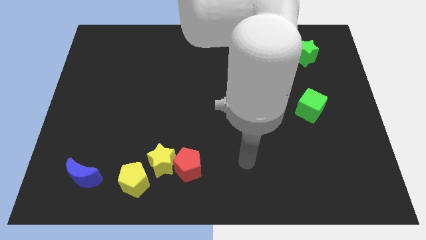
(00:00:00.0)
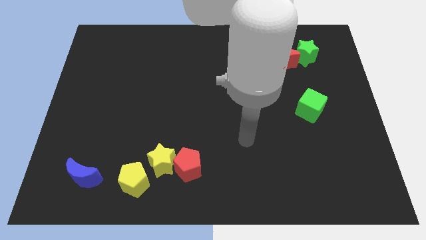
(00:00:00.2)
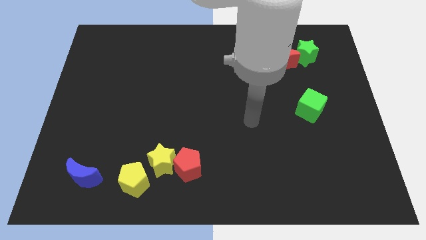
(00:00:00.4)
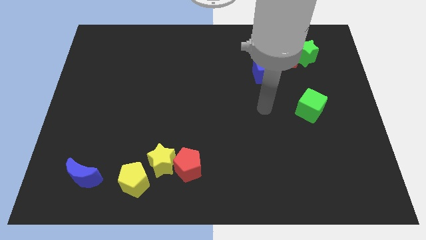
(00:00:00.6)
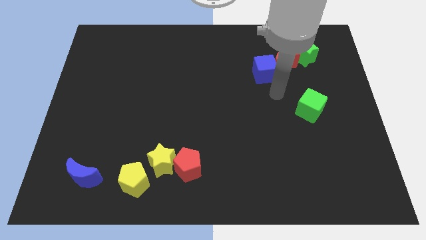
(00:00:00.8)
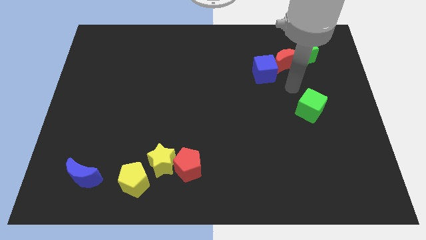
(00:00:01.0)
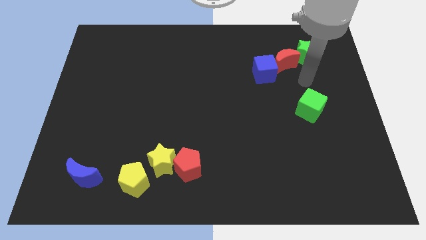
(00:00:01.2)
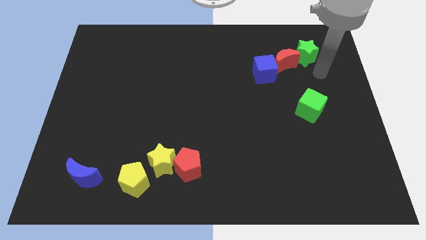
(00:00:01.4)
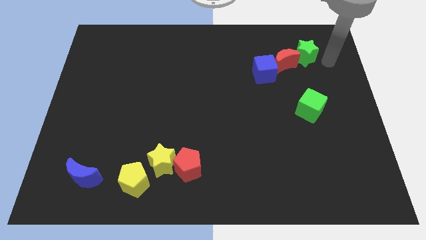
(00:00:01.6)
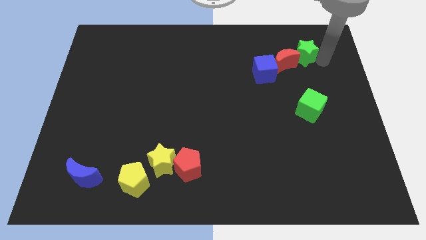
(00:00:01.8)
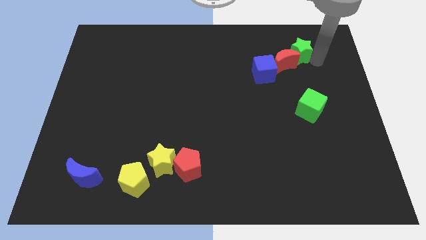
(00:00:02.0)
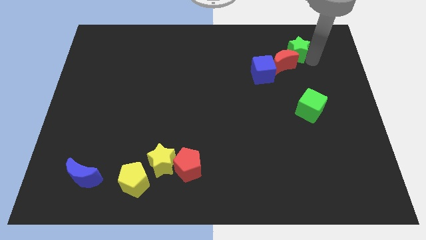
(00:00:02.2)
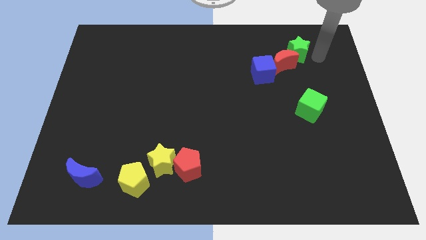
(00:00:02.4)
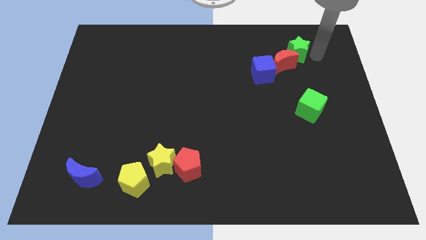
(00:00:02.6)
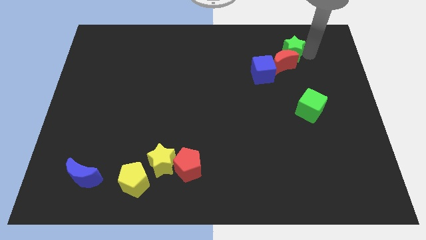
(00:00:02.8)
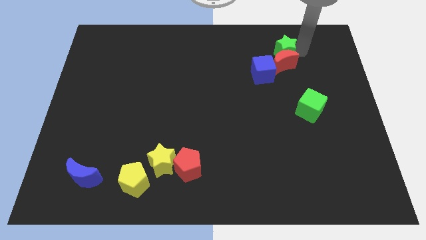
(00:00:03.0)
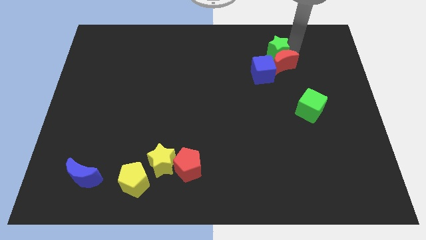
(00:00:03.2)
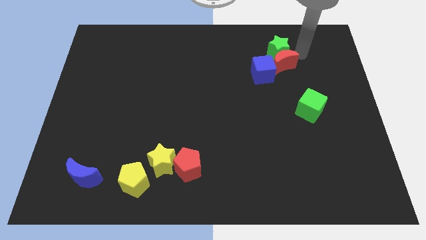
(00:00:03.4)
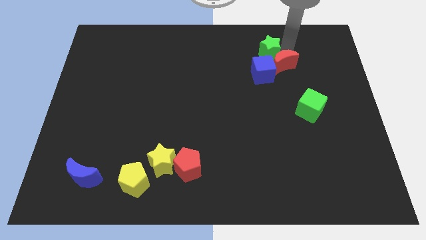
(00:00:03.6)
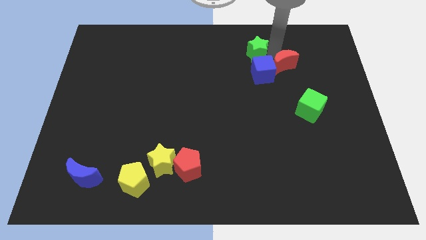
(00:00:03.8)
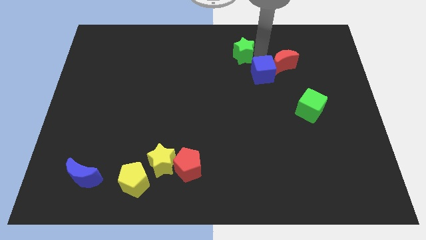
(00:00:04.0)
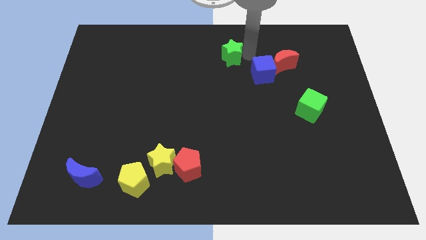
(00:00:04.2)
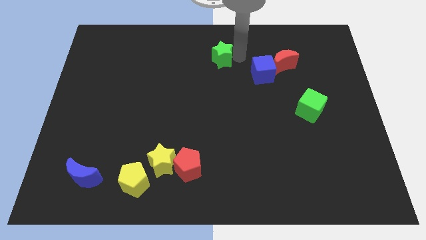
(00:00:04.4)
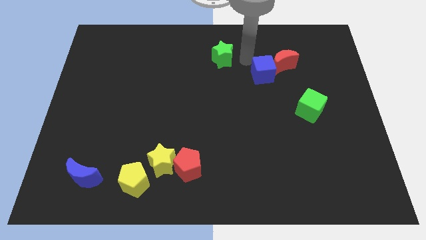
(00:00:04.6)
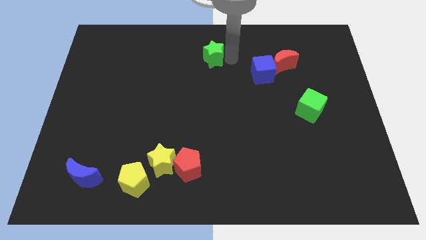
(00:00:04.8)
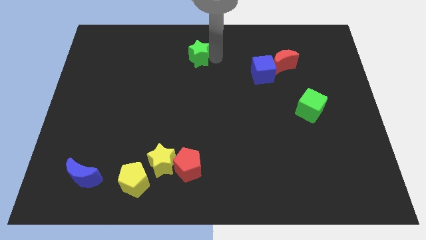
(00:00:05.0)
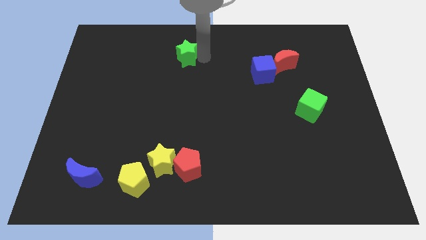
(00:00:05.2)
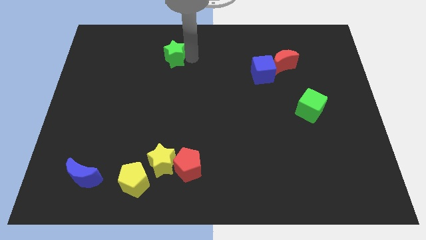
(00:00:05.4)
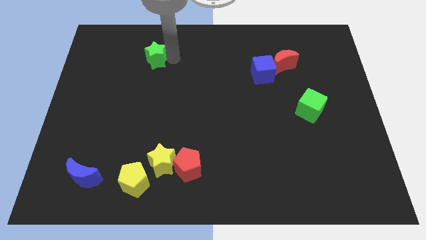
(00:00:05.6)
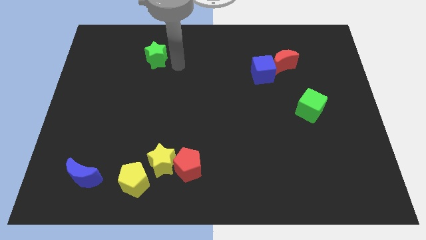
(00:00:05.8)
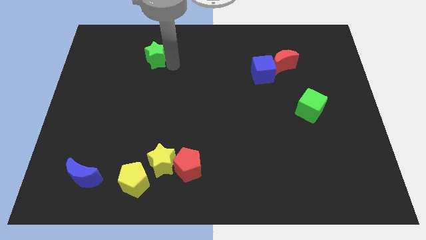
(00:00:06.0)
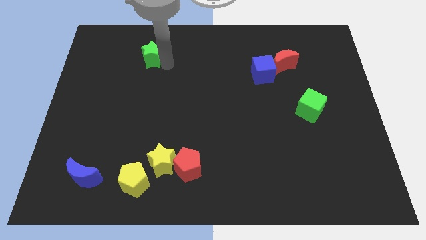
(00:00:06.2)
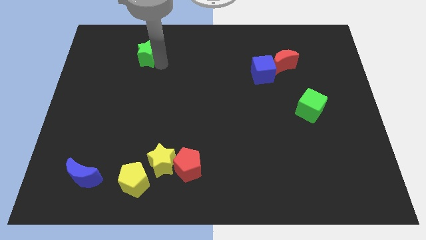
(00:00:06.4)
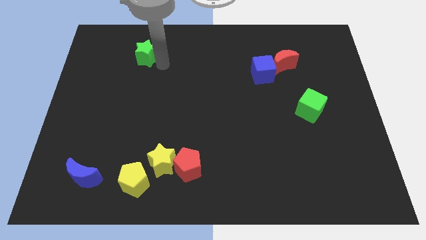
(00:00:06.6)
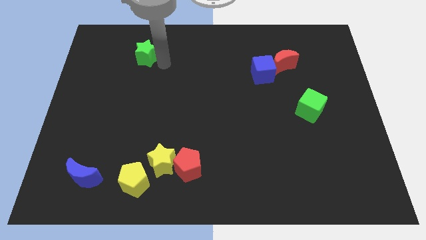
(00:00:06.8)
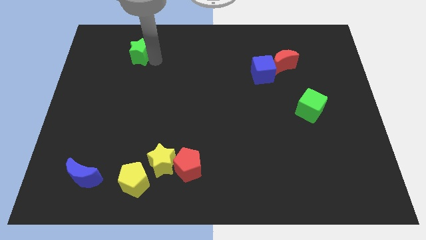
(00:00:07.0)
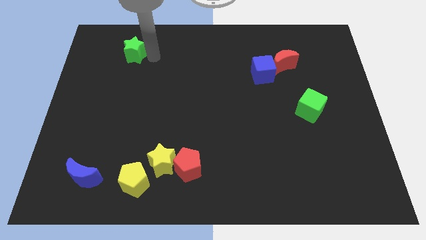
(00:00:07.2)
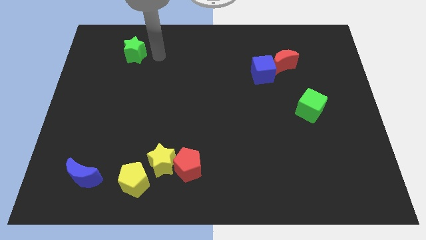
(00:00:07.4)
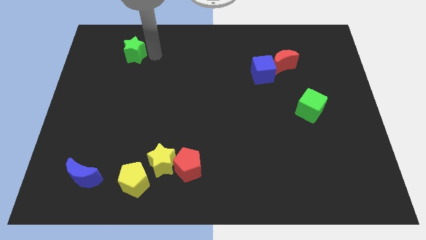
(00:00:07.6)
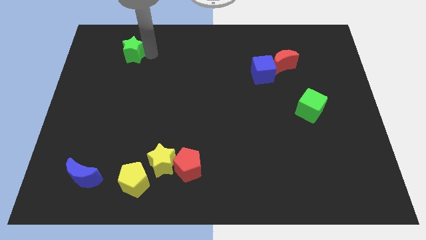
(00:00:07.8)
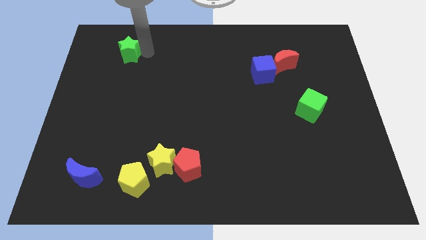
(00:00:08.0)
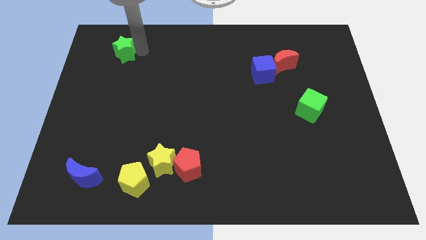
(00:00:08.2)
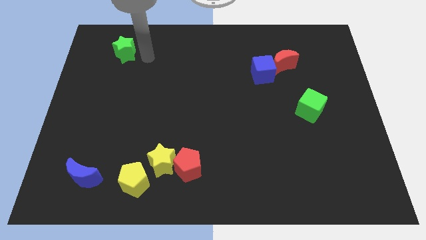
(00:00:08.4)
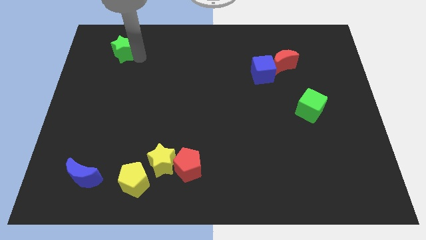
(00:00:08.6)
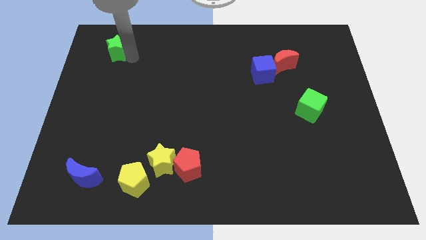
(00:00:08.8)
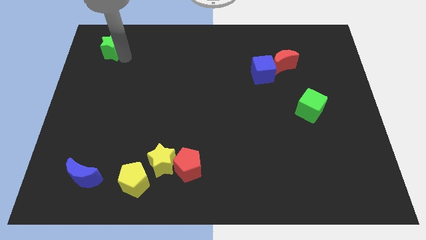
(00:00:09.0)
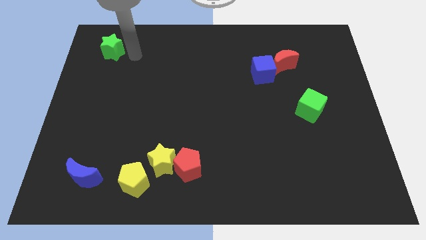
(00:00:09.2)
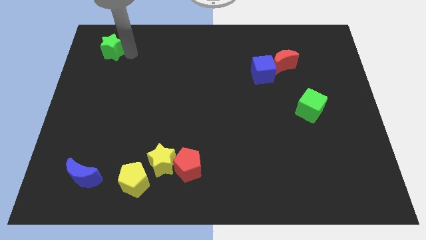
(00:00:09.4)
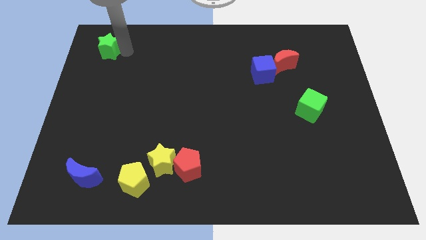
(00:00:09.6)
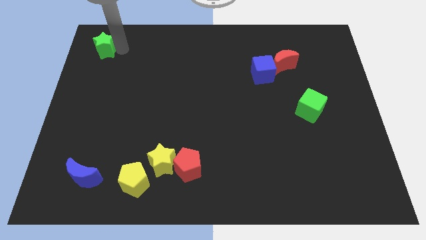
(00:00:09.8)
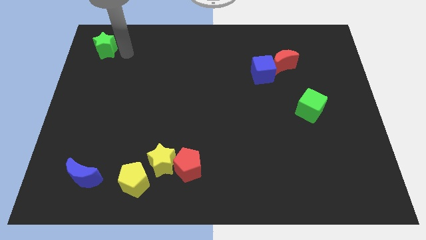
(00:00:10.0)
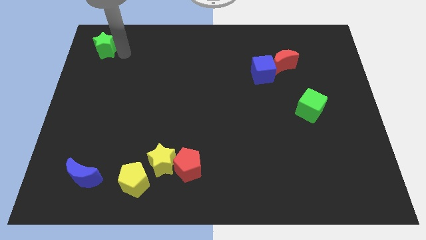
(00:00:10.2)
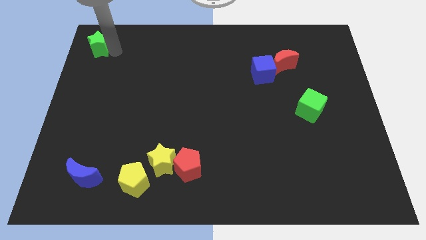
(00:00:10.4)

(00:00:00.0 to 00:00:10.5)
move the green star to the top left corner
